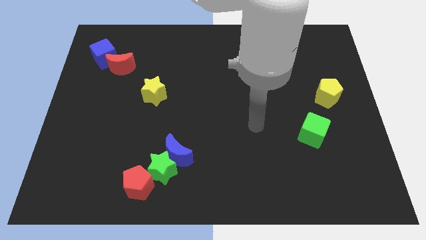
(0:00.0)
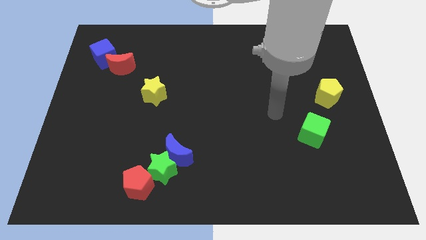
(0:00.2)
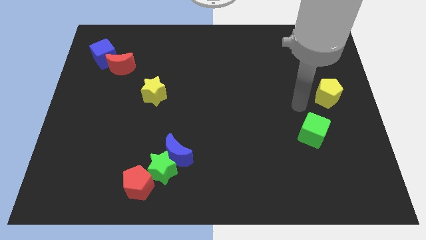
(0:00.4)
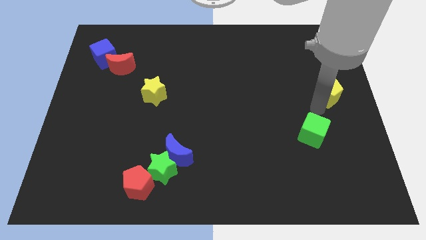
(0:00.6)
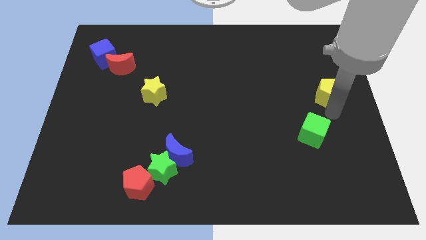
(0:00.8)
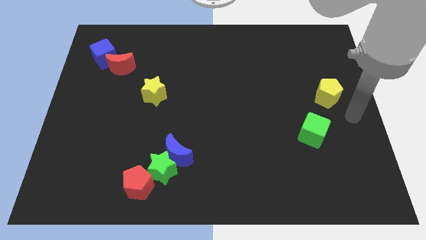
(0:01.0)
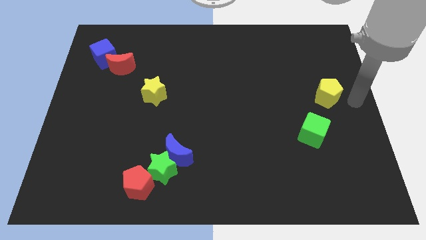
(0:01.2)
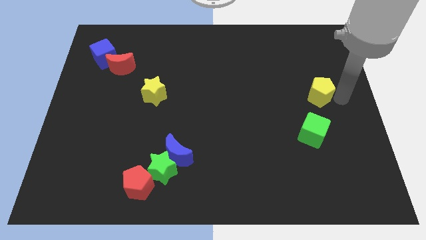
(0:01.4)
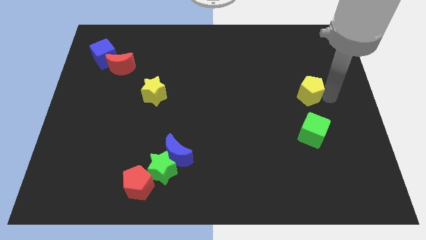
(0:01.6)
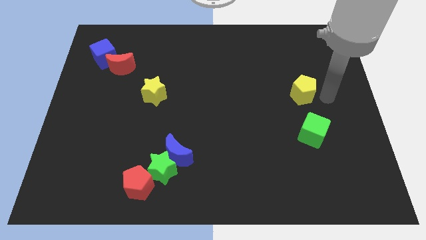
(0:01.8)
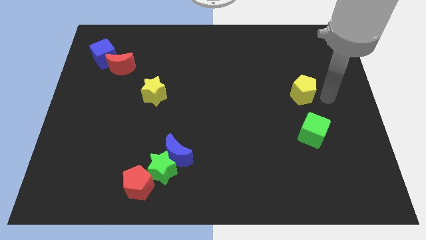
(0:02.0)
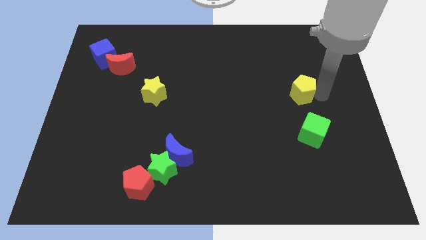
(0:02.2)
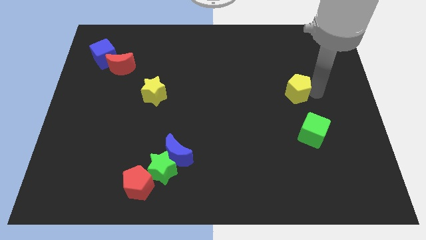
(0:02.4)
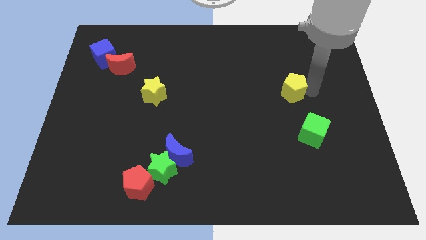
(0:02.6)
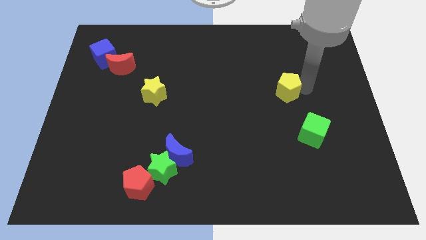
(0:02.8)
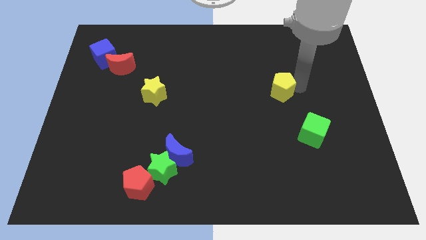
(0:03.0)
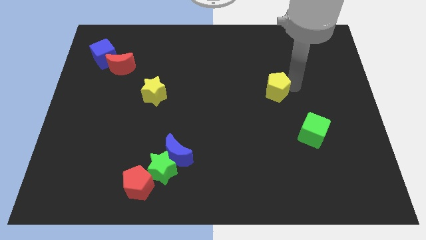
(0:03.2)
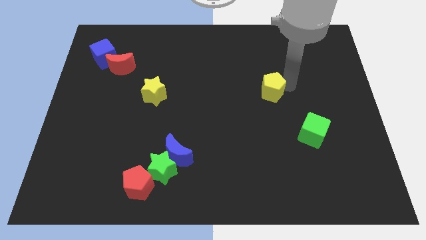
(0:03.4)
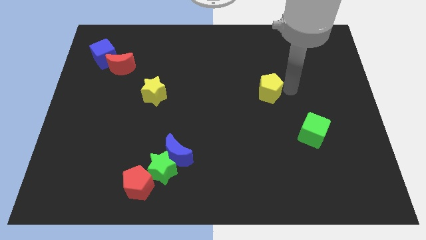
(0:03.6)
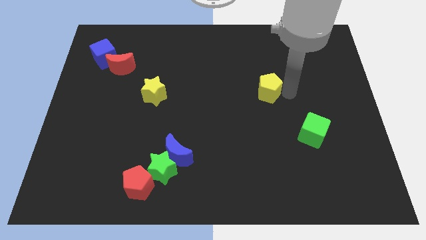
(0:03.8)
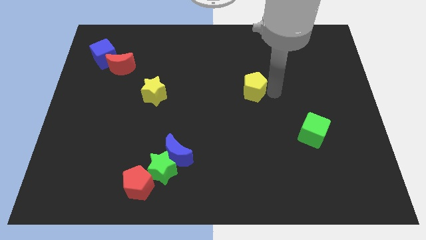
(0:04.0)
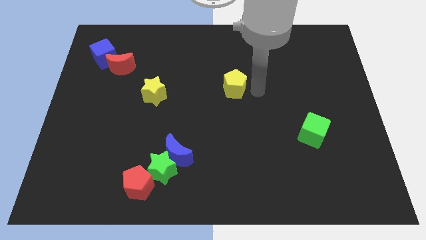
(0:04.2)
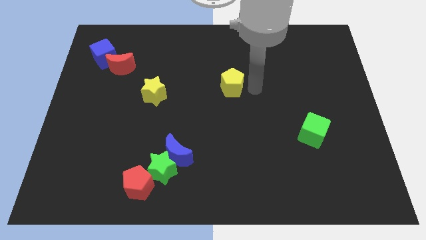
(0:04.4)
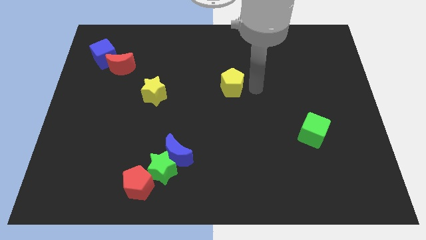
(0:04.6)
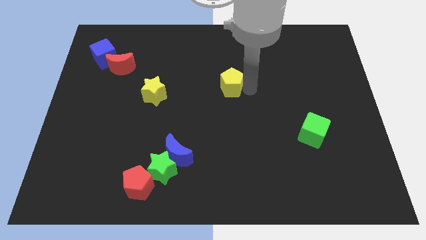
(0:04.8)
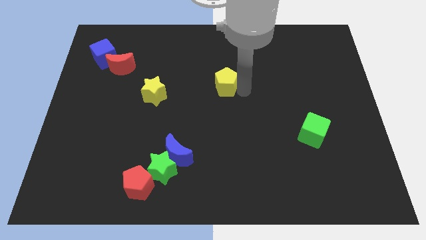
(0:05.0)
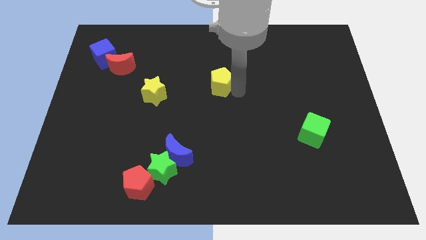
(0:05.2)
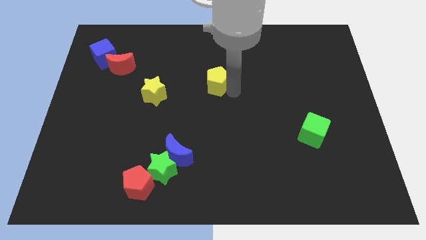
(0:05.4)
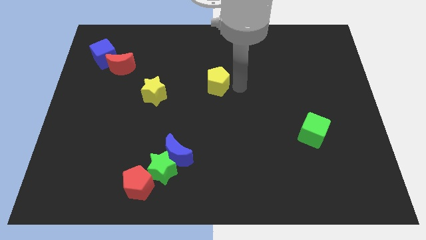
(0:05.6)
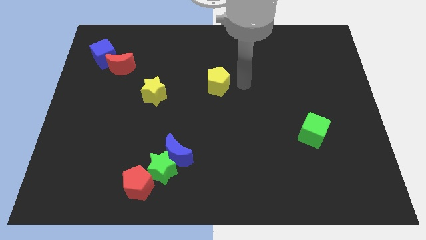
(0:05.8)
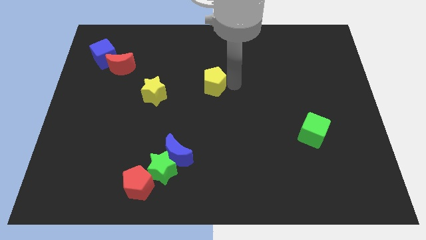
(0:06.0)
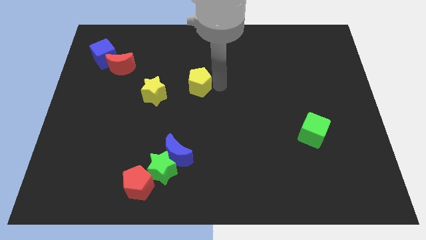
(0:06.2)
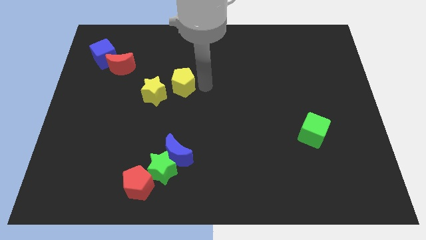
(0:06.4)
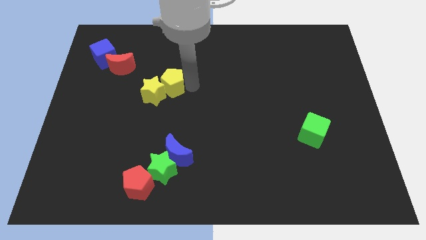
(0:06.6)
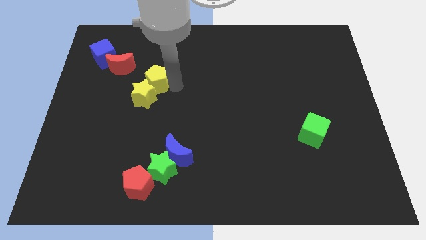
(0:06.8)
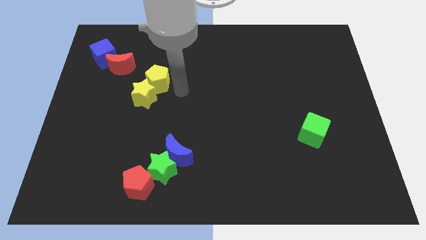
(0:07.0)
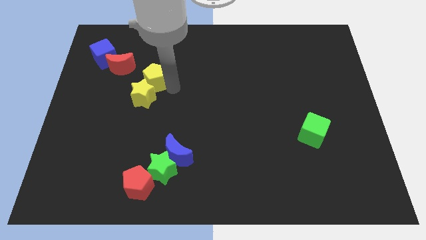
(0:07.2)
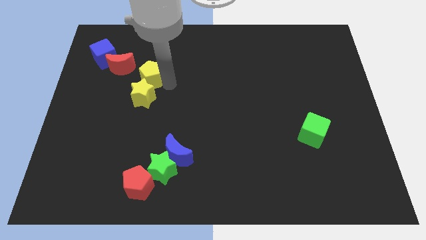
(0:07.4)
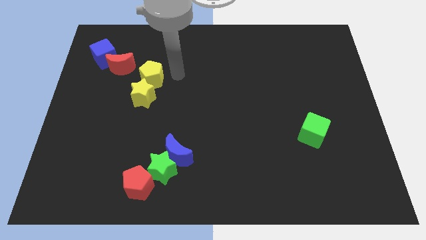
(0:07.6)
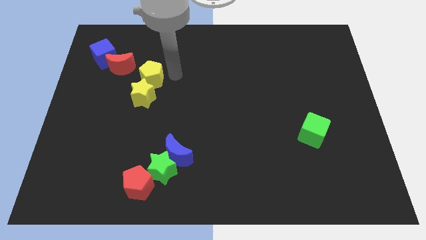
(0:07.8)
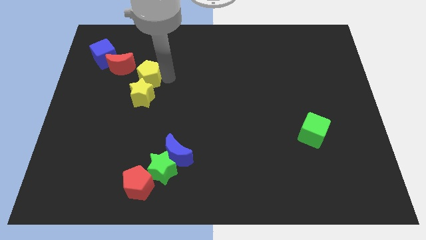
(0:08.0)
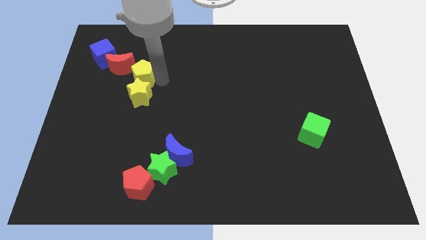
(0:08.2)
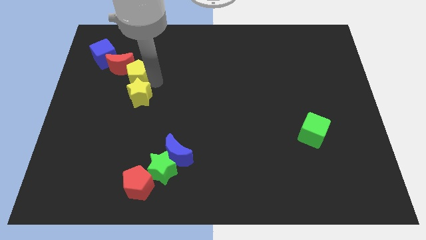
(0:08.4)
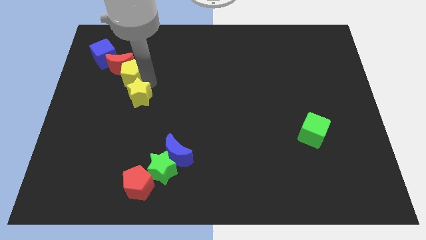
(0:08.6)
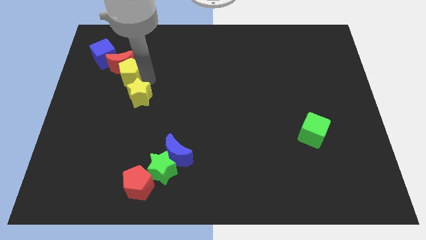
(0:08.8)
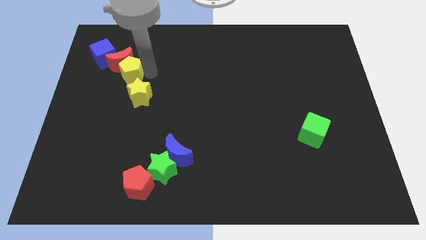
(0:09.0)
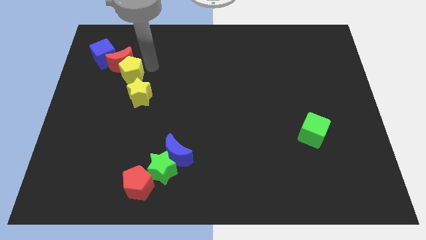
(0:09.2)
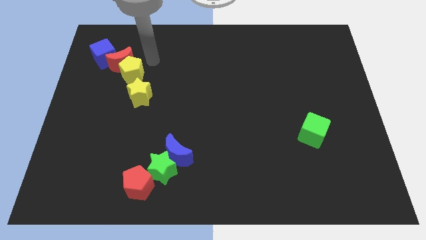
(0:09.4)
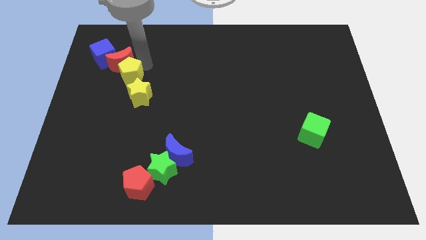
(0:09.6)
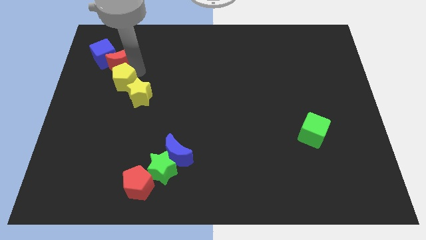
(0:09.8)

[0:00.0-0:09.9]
put the yellow pentagon diagonally down and to the left of the red moon

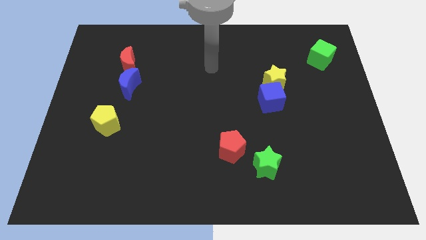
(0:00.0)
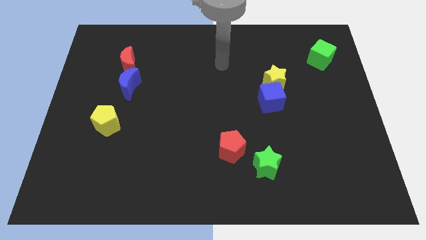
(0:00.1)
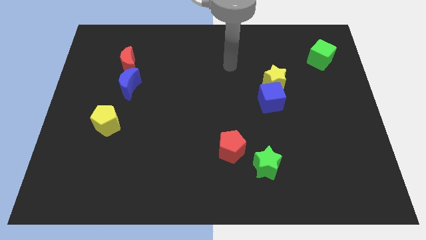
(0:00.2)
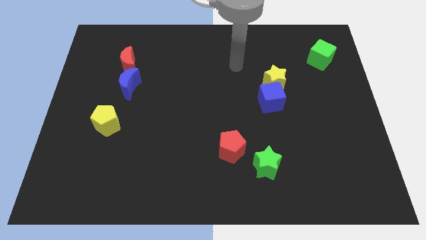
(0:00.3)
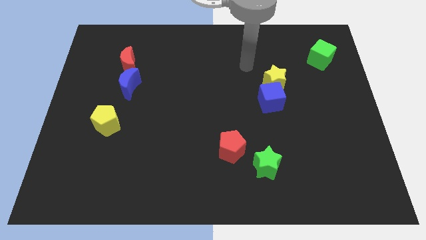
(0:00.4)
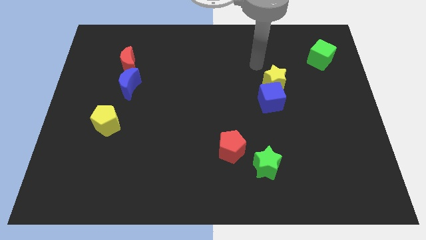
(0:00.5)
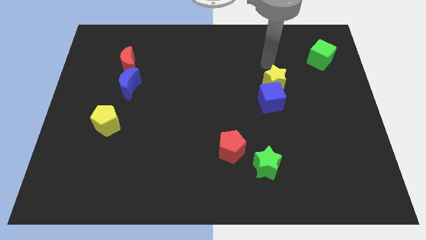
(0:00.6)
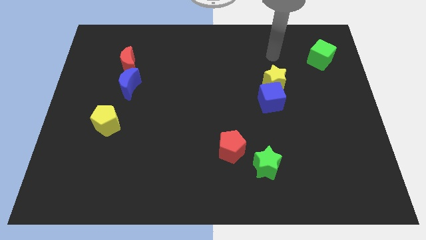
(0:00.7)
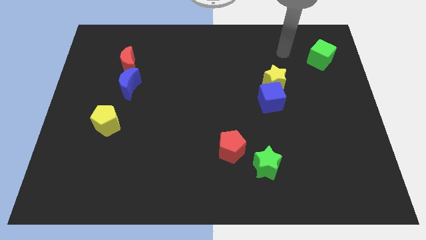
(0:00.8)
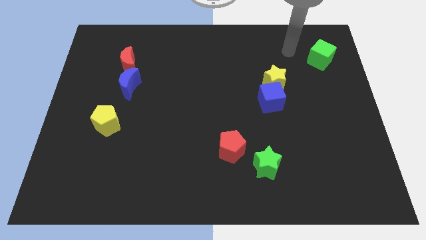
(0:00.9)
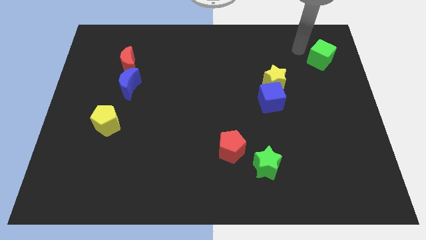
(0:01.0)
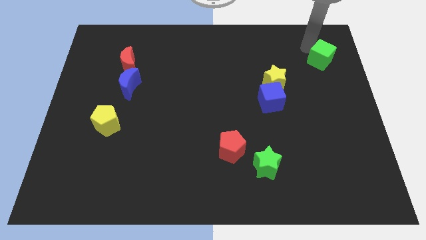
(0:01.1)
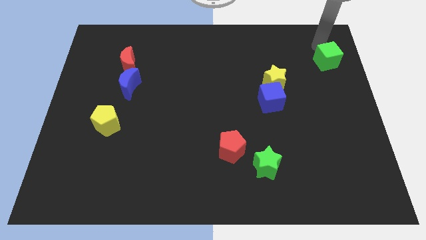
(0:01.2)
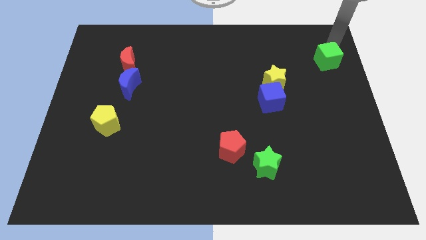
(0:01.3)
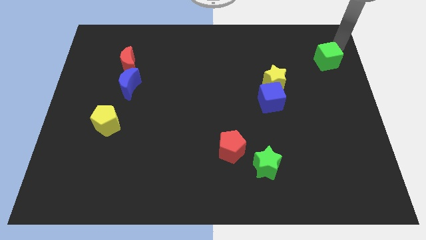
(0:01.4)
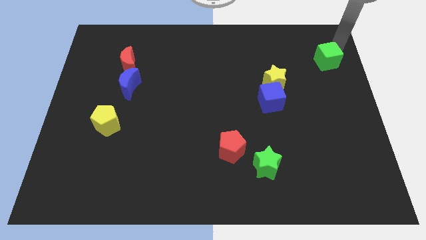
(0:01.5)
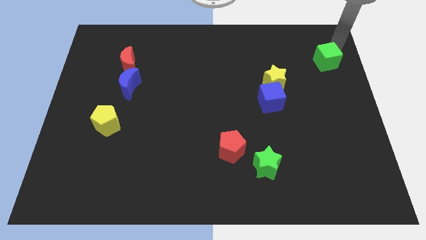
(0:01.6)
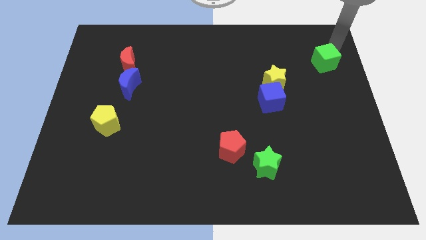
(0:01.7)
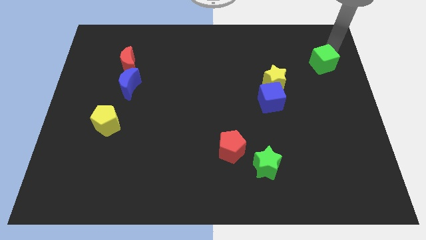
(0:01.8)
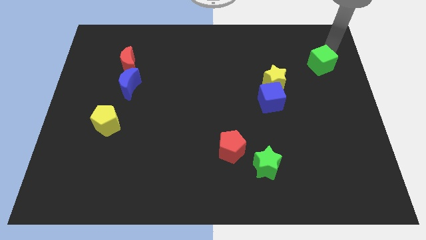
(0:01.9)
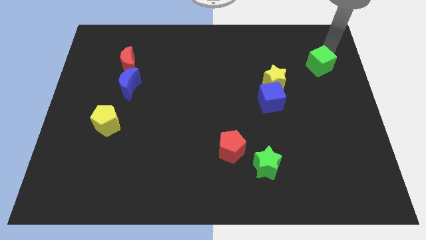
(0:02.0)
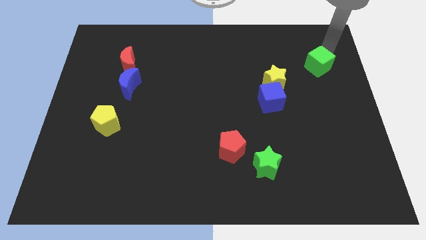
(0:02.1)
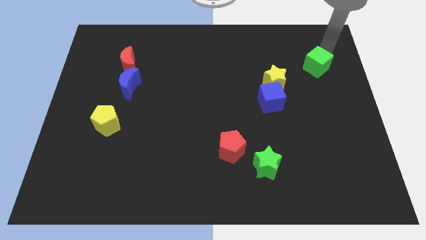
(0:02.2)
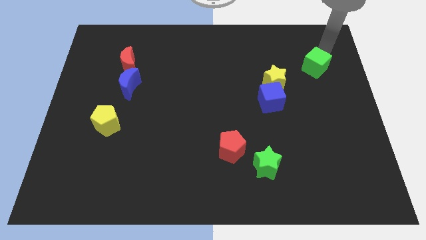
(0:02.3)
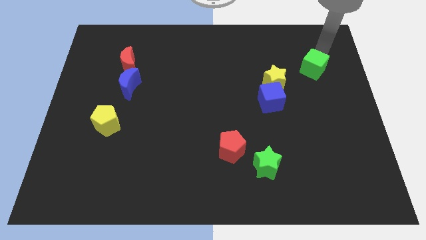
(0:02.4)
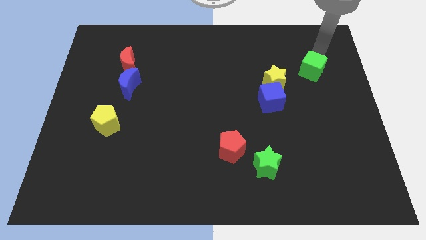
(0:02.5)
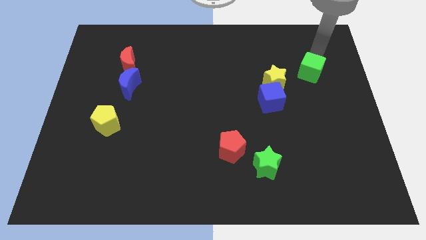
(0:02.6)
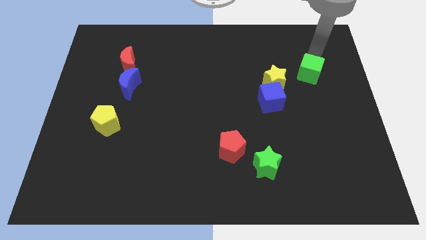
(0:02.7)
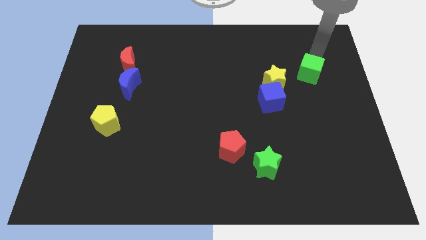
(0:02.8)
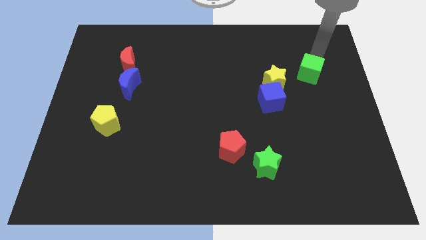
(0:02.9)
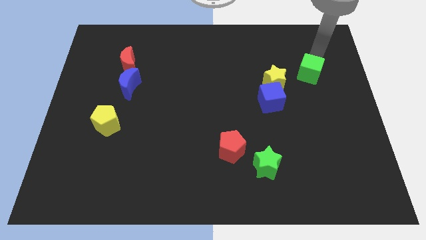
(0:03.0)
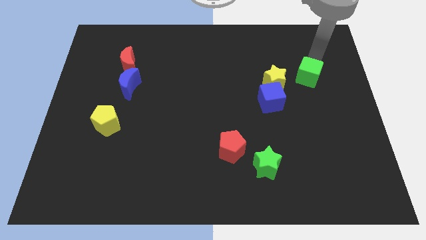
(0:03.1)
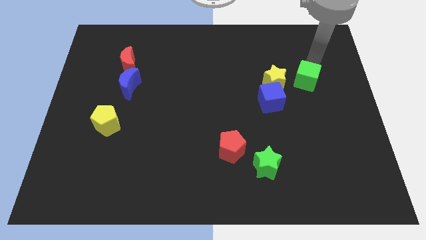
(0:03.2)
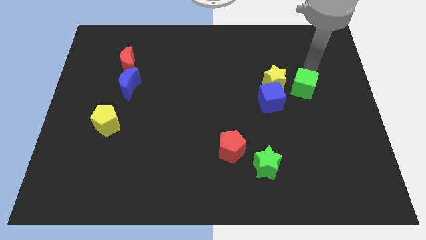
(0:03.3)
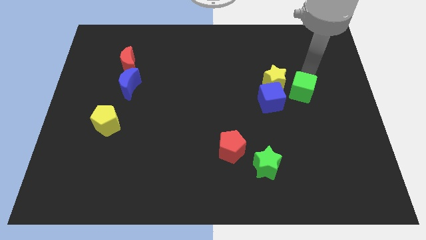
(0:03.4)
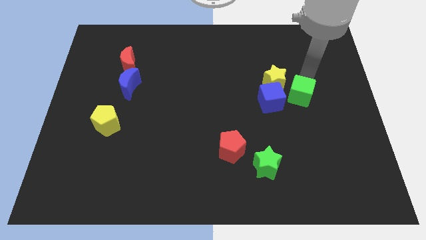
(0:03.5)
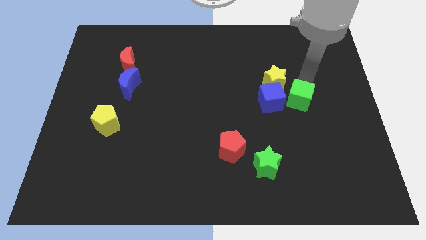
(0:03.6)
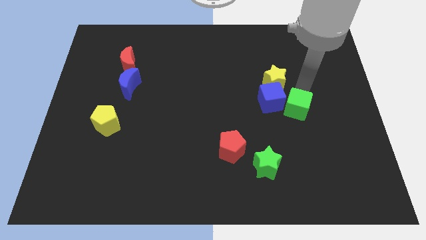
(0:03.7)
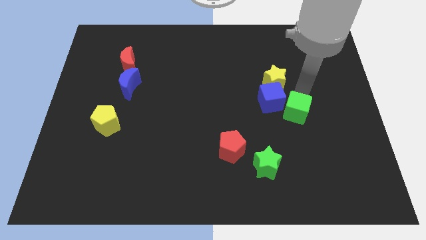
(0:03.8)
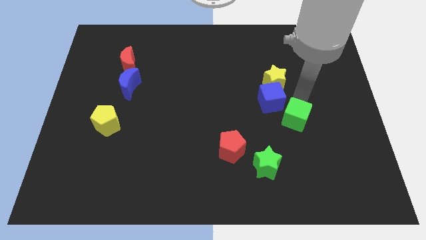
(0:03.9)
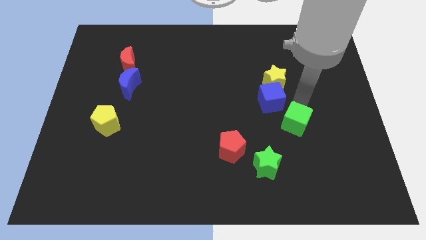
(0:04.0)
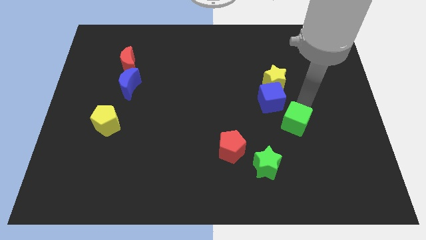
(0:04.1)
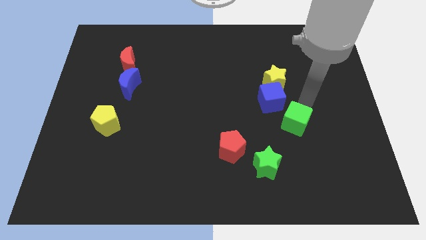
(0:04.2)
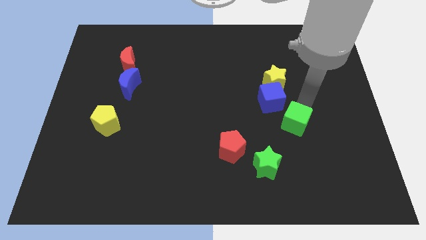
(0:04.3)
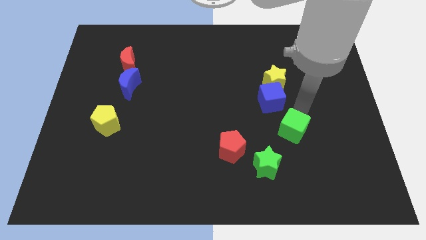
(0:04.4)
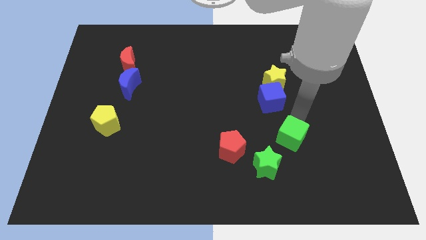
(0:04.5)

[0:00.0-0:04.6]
put the green cube right of the red pentagon
